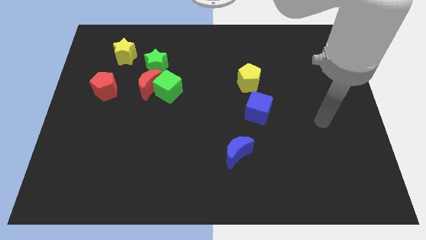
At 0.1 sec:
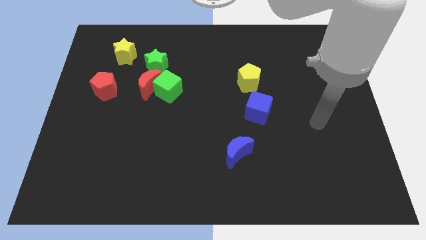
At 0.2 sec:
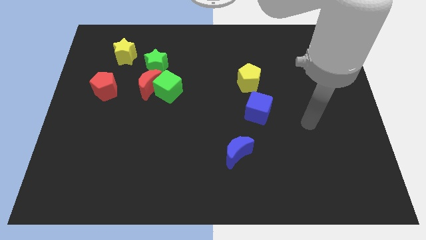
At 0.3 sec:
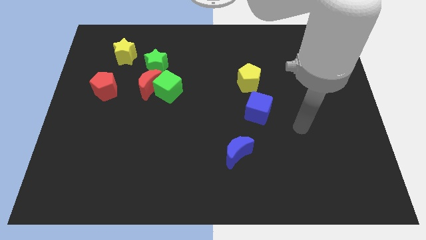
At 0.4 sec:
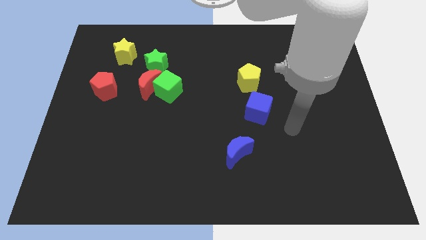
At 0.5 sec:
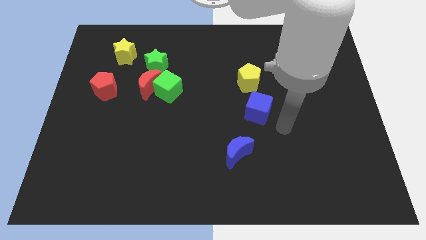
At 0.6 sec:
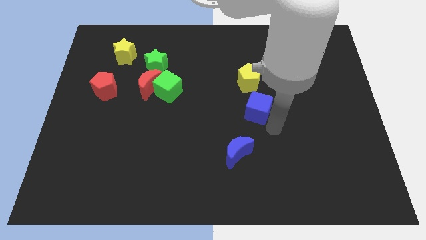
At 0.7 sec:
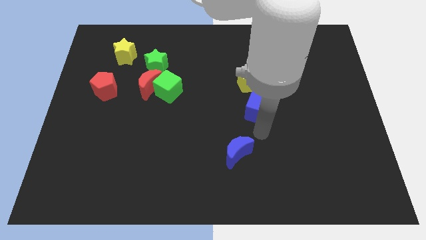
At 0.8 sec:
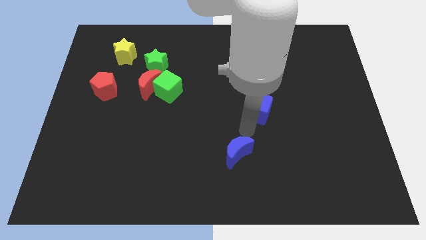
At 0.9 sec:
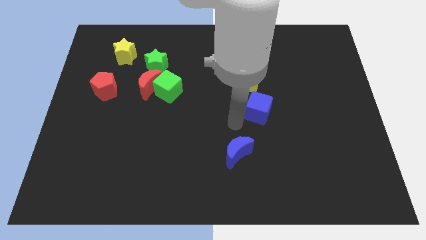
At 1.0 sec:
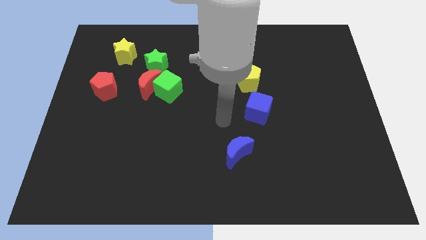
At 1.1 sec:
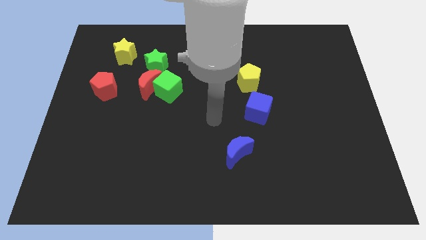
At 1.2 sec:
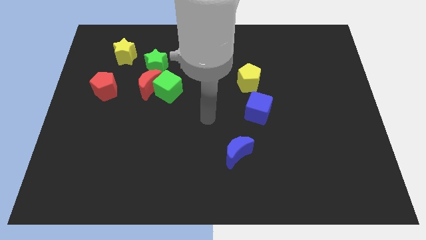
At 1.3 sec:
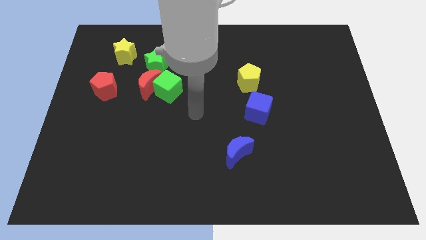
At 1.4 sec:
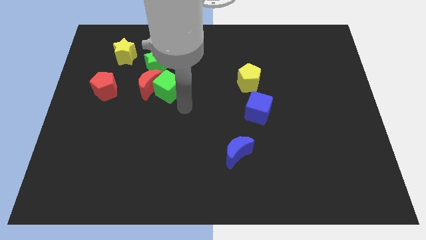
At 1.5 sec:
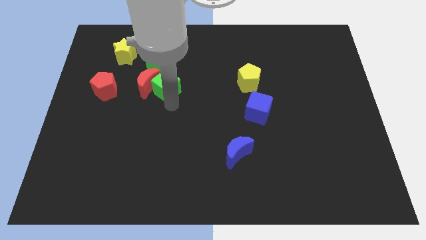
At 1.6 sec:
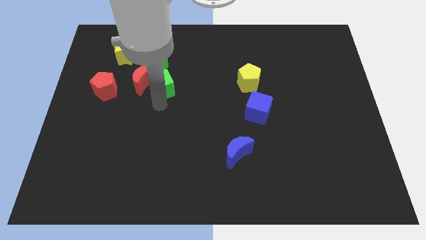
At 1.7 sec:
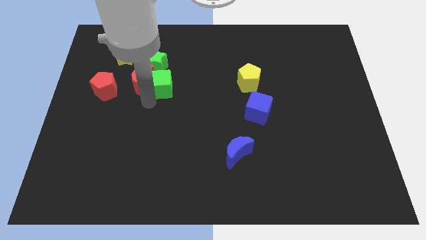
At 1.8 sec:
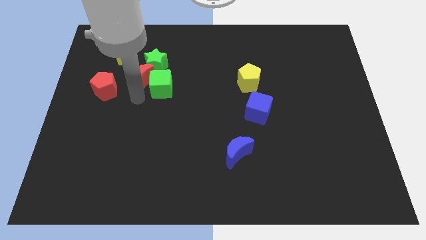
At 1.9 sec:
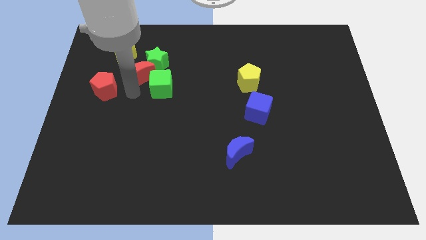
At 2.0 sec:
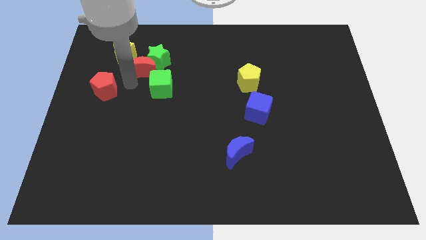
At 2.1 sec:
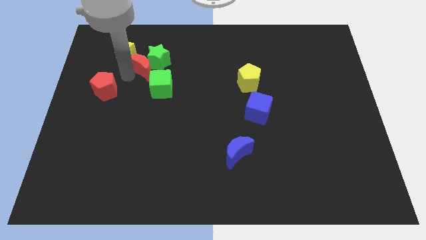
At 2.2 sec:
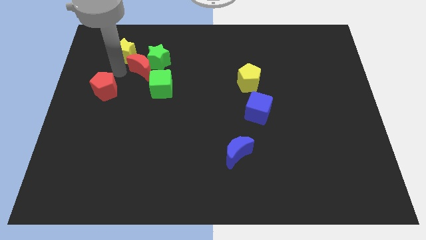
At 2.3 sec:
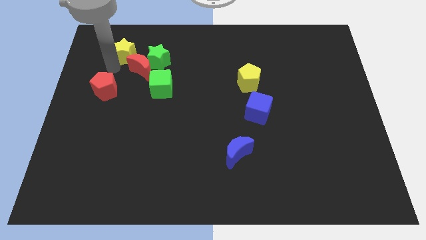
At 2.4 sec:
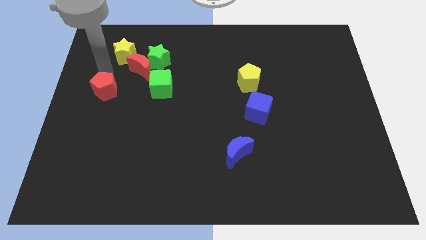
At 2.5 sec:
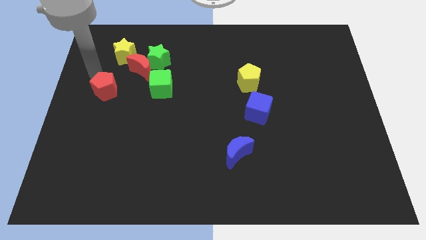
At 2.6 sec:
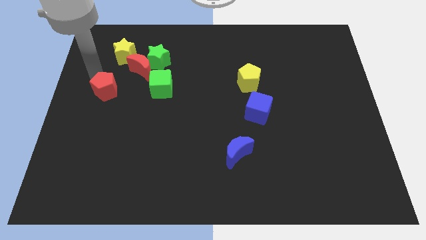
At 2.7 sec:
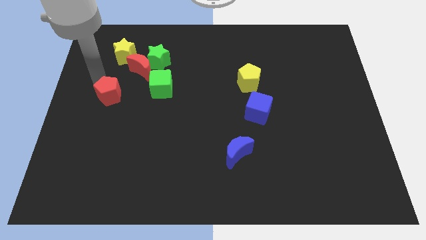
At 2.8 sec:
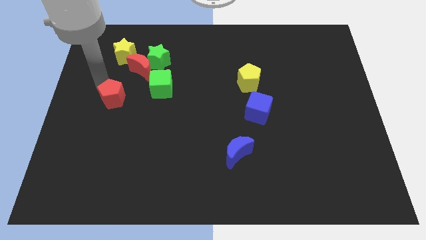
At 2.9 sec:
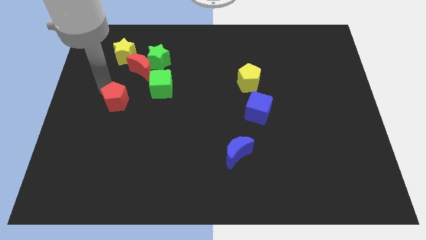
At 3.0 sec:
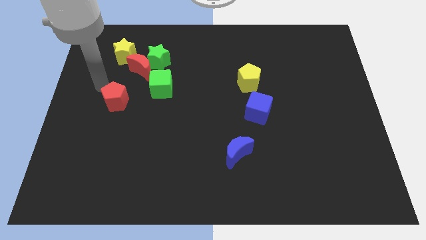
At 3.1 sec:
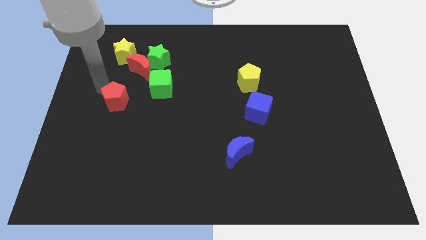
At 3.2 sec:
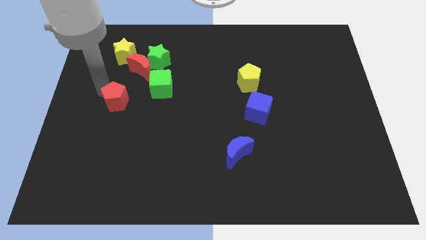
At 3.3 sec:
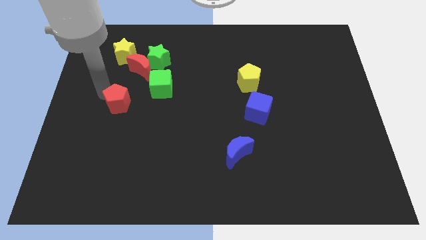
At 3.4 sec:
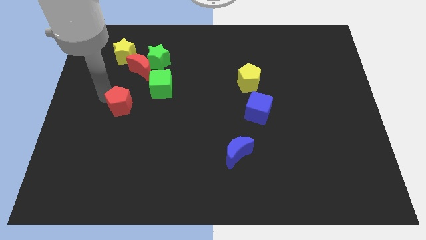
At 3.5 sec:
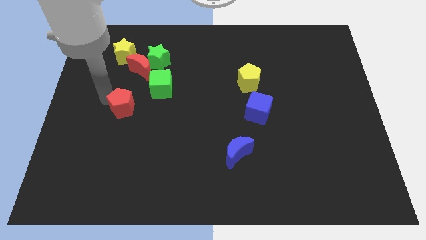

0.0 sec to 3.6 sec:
slide the red pentagon diagonally down and to the right slightly

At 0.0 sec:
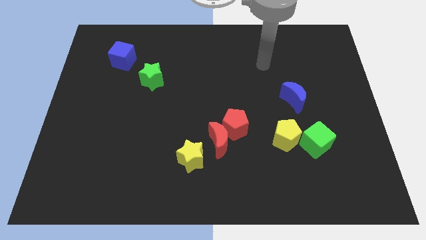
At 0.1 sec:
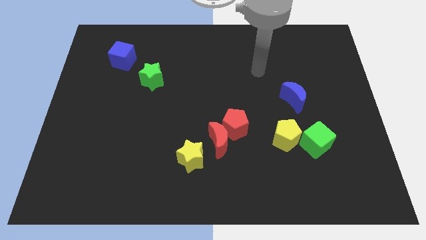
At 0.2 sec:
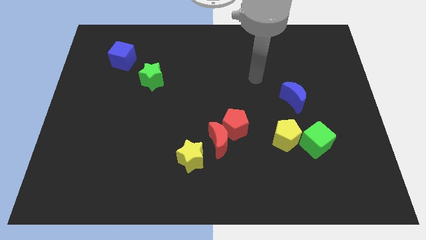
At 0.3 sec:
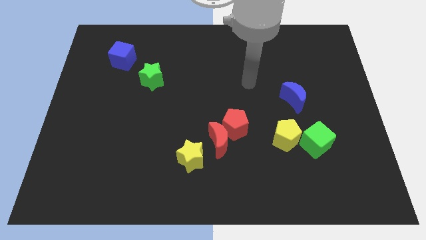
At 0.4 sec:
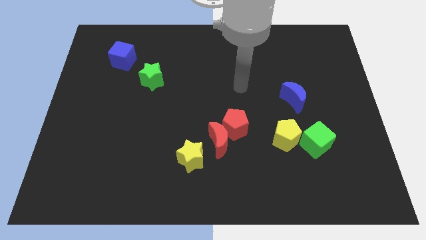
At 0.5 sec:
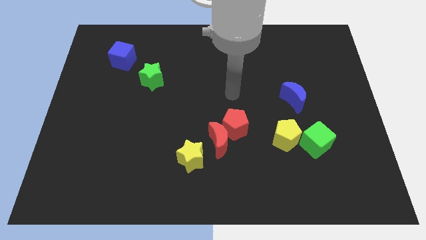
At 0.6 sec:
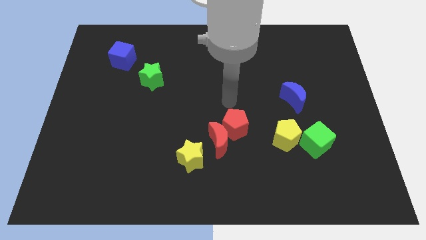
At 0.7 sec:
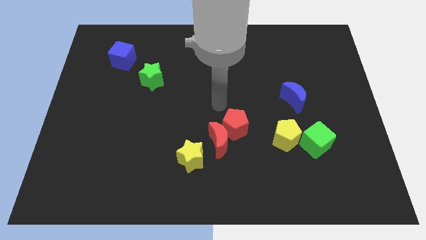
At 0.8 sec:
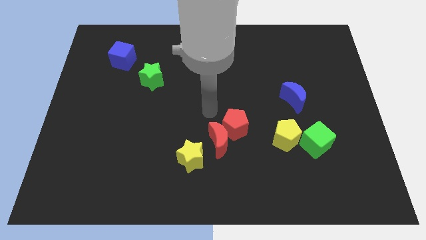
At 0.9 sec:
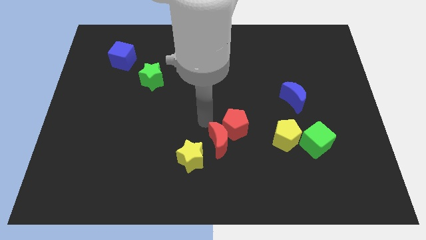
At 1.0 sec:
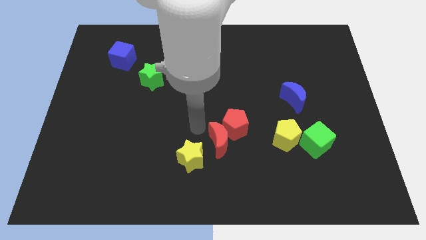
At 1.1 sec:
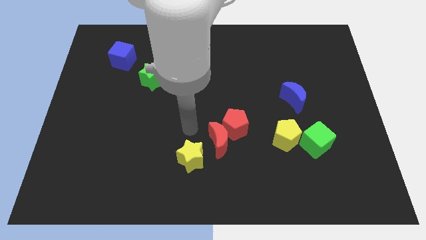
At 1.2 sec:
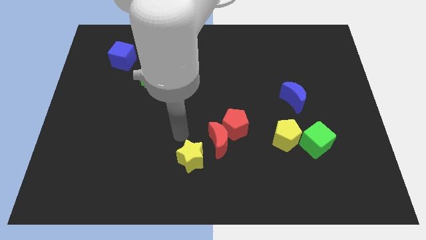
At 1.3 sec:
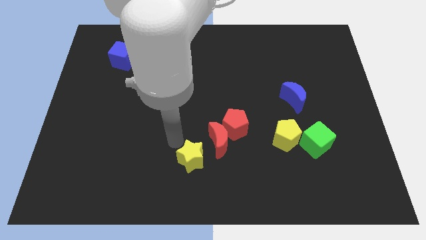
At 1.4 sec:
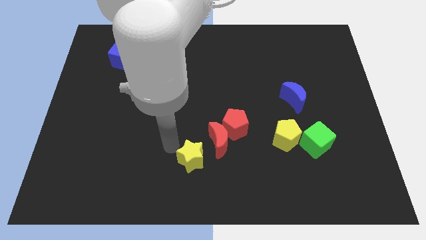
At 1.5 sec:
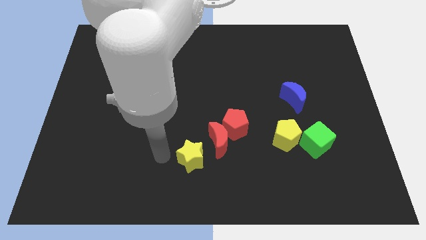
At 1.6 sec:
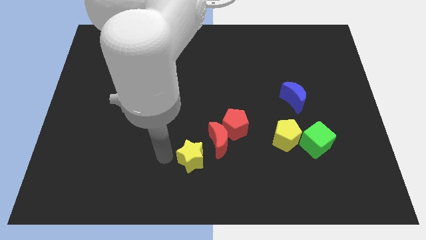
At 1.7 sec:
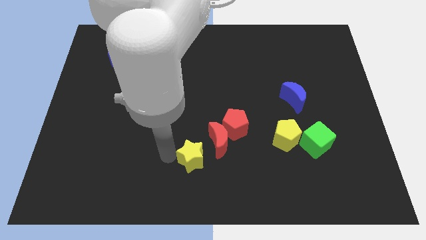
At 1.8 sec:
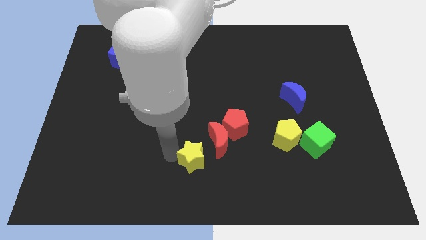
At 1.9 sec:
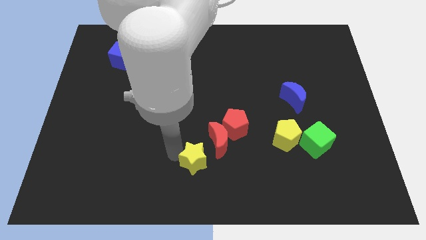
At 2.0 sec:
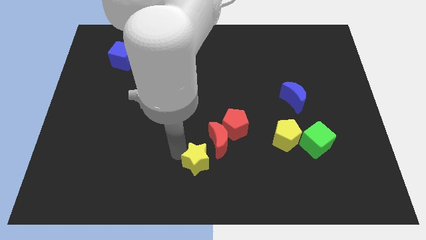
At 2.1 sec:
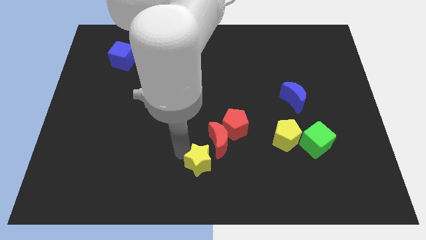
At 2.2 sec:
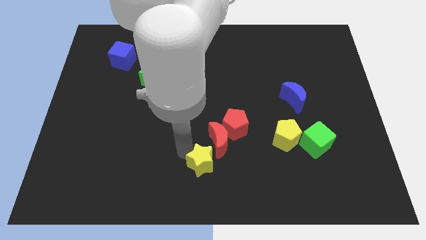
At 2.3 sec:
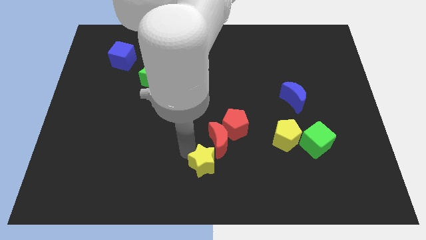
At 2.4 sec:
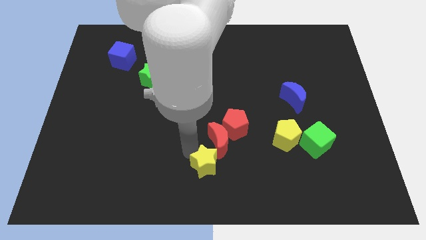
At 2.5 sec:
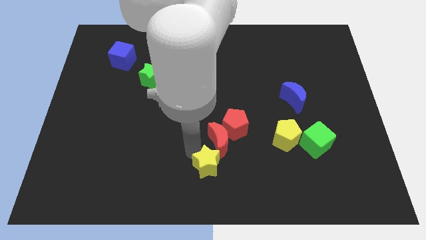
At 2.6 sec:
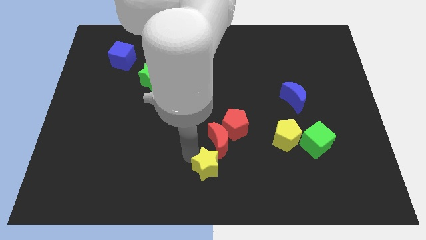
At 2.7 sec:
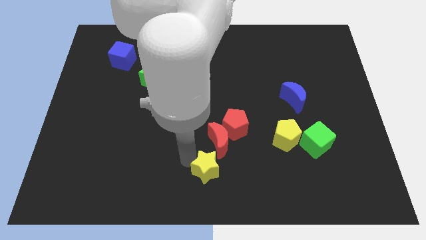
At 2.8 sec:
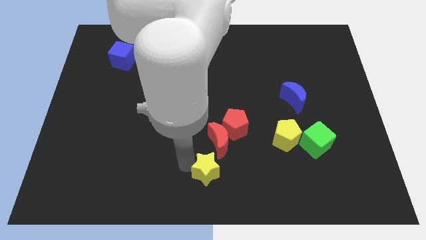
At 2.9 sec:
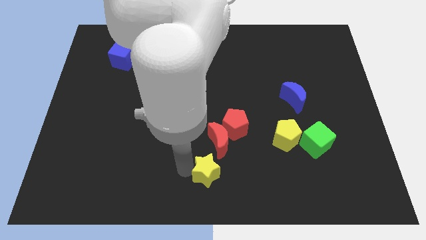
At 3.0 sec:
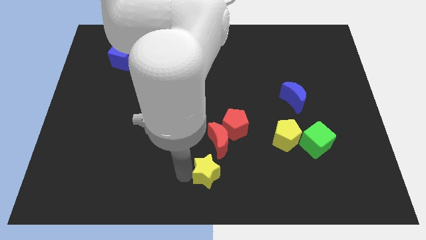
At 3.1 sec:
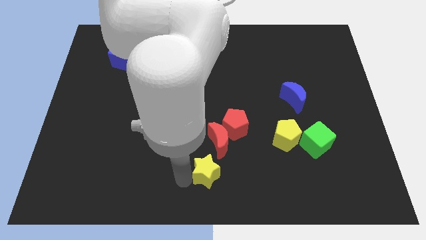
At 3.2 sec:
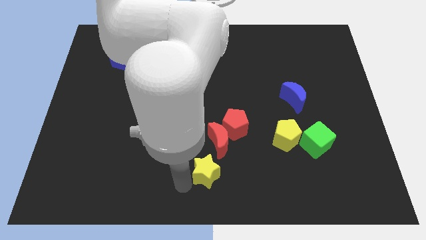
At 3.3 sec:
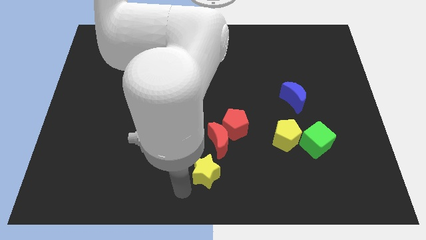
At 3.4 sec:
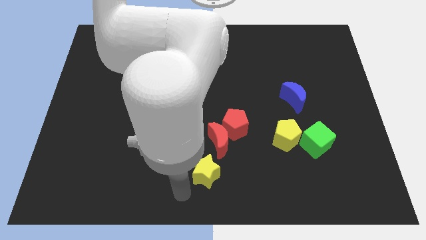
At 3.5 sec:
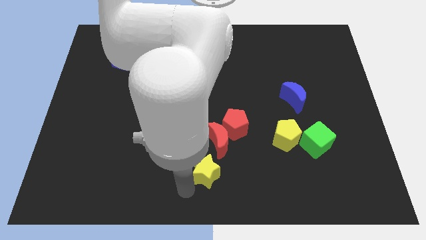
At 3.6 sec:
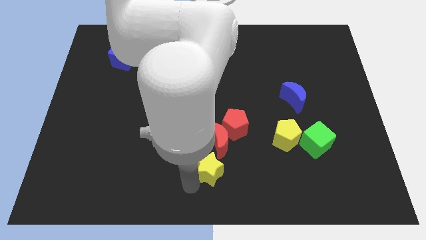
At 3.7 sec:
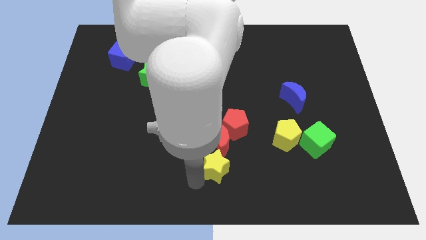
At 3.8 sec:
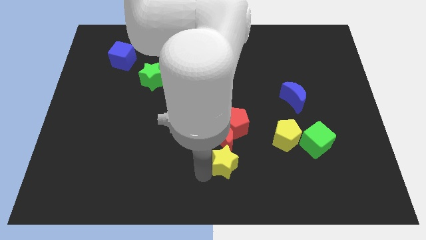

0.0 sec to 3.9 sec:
push the yellow star slightly right

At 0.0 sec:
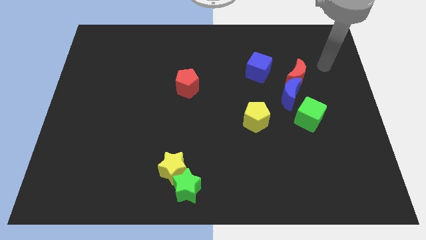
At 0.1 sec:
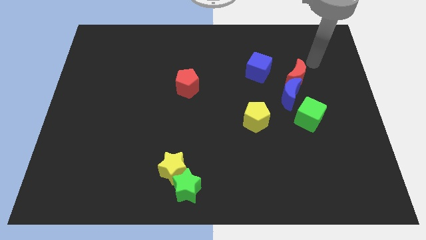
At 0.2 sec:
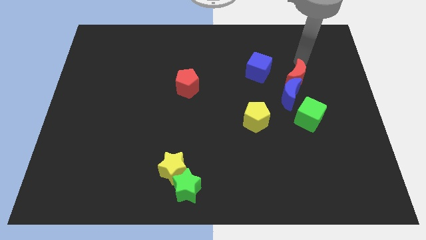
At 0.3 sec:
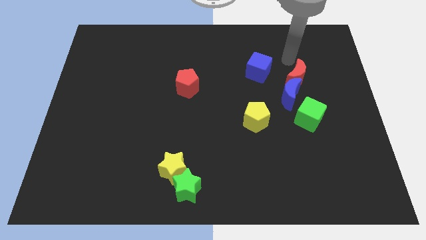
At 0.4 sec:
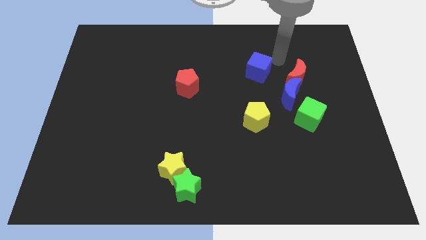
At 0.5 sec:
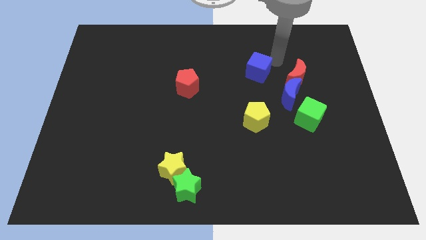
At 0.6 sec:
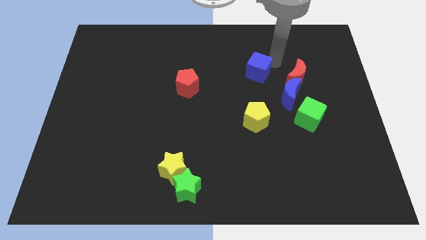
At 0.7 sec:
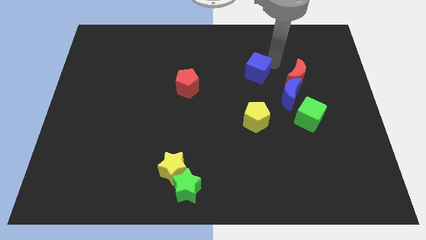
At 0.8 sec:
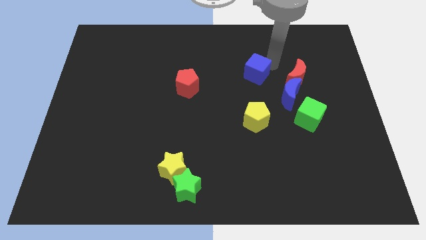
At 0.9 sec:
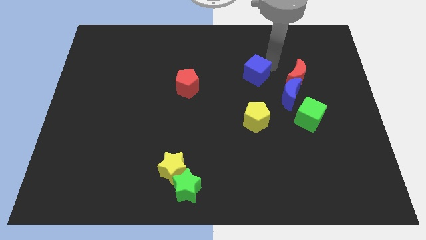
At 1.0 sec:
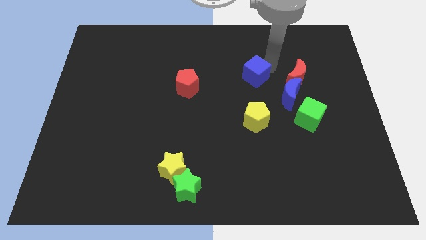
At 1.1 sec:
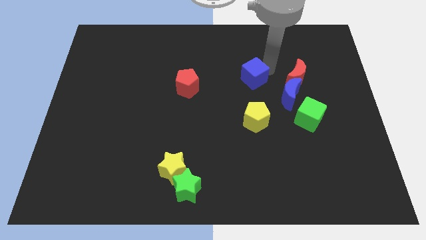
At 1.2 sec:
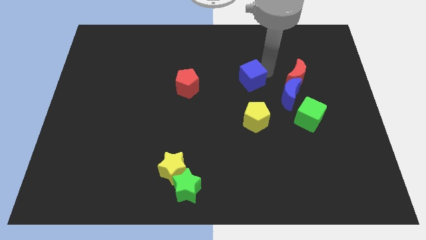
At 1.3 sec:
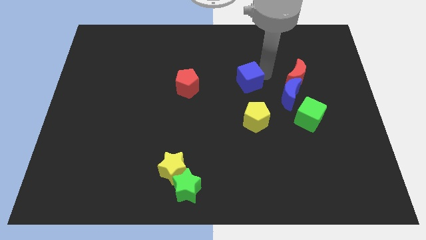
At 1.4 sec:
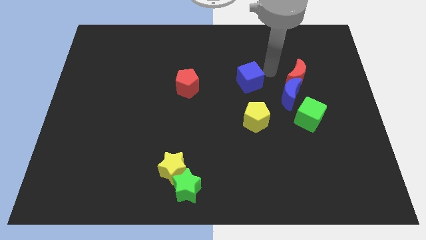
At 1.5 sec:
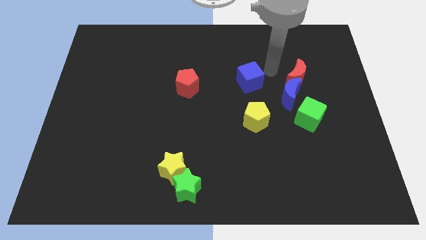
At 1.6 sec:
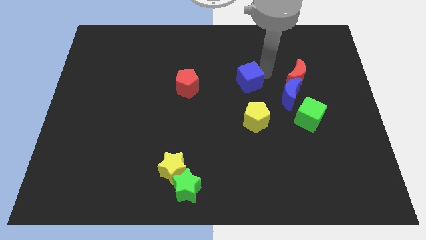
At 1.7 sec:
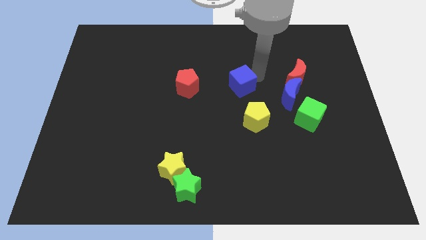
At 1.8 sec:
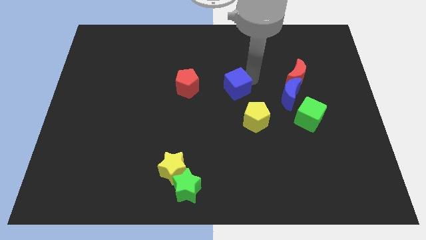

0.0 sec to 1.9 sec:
push the blue cube slightly diagonally downwards and to the left
